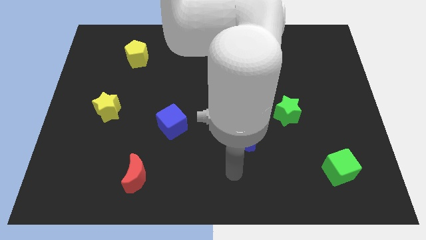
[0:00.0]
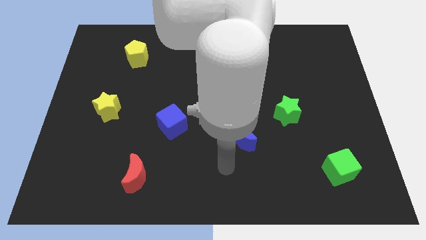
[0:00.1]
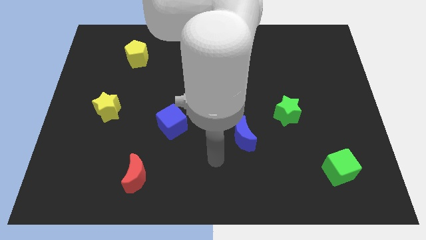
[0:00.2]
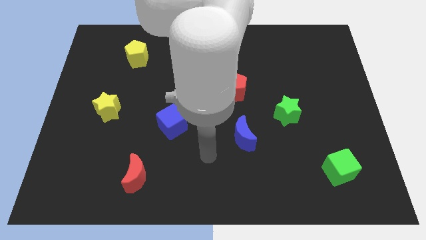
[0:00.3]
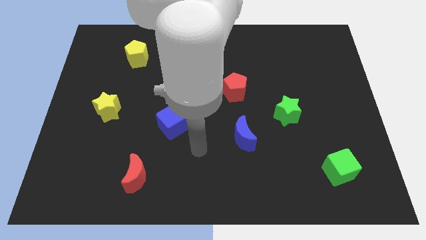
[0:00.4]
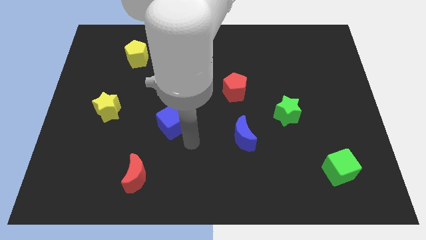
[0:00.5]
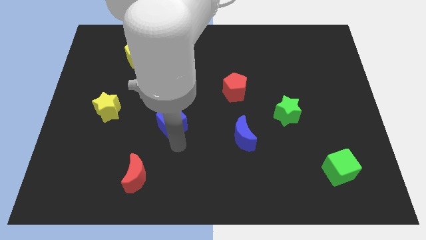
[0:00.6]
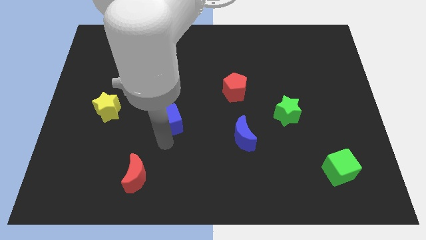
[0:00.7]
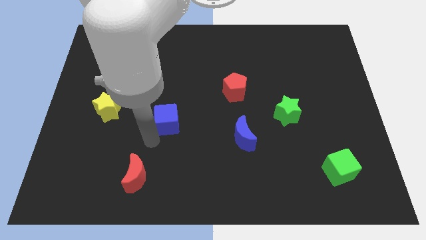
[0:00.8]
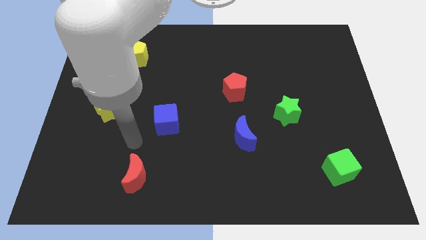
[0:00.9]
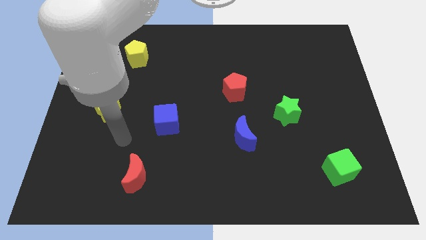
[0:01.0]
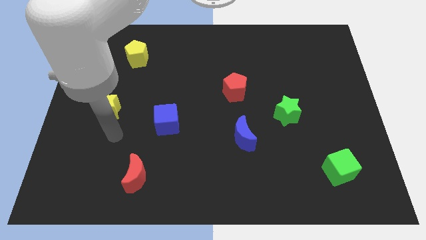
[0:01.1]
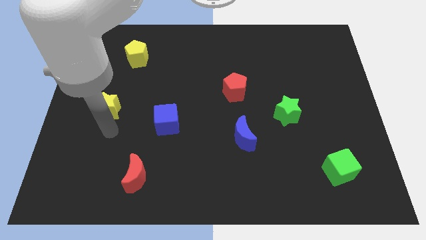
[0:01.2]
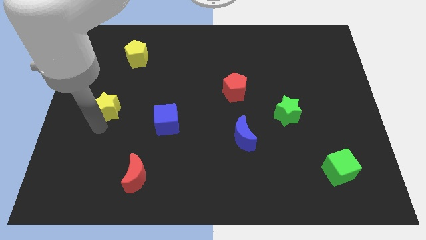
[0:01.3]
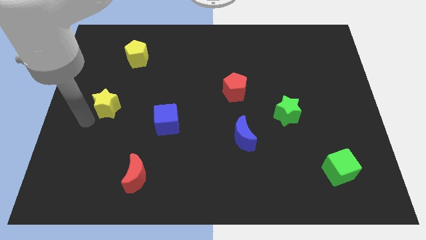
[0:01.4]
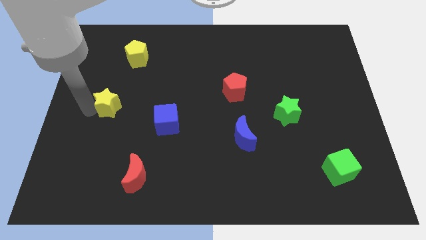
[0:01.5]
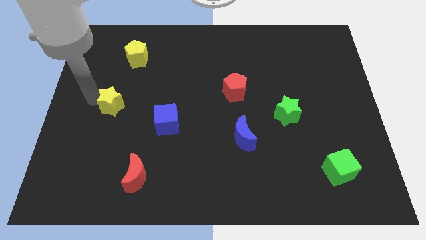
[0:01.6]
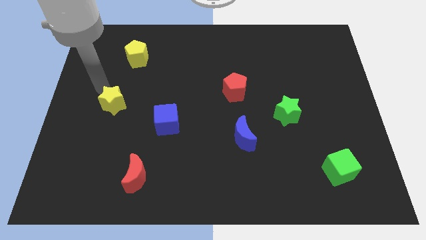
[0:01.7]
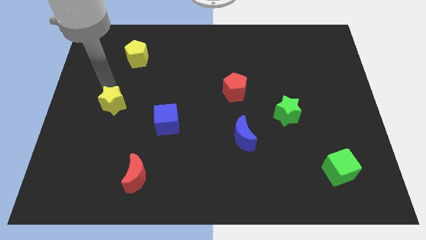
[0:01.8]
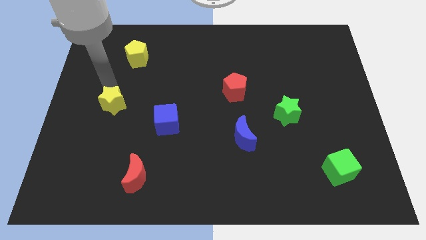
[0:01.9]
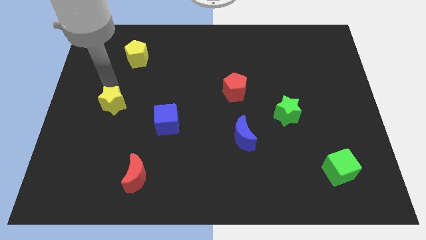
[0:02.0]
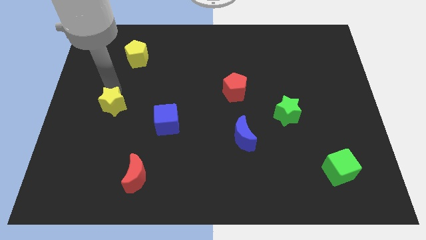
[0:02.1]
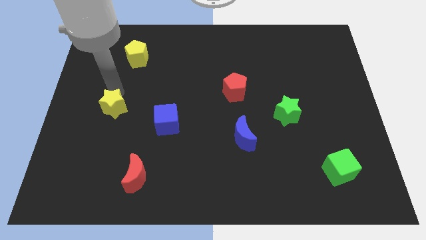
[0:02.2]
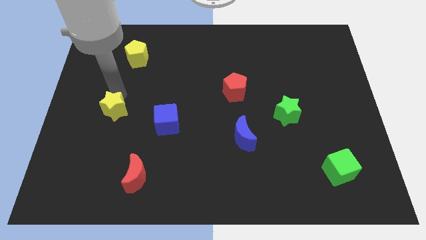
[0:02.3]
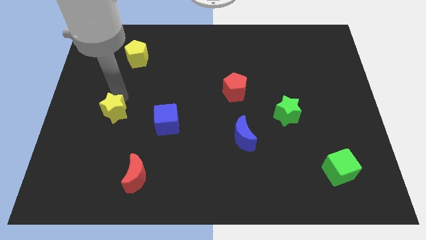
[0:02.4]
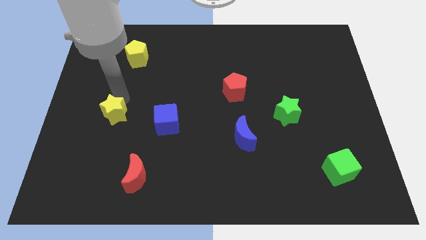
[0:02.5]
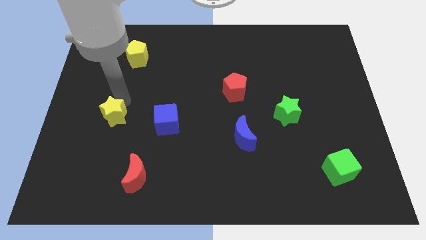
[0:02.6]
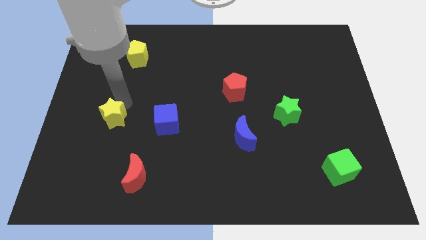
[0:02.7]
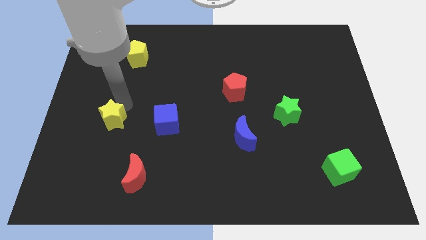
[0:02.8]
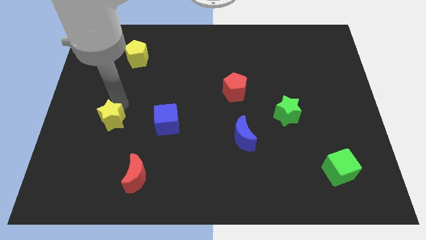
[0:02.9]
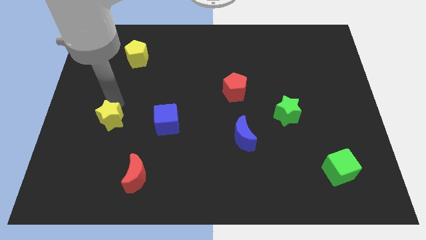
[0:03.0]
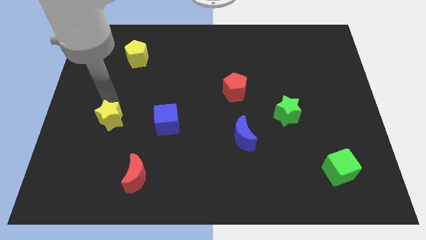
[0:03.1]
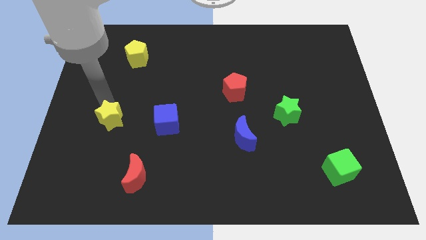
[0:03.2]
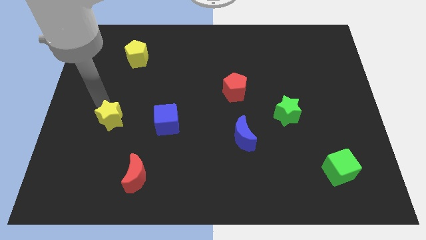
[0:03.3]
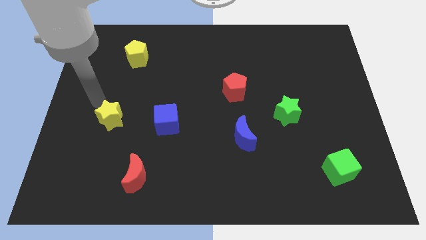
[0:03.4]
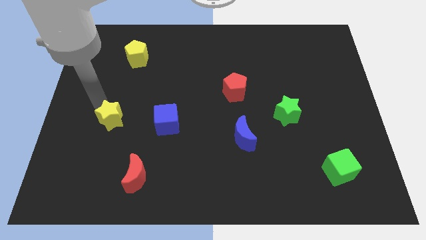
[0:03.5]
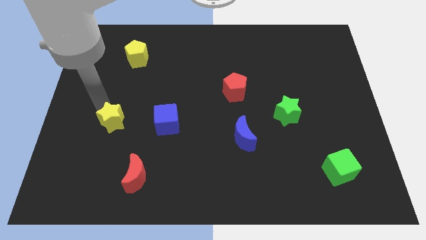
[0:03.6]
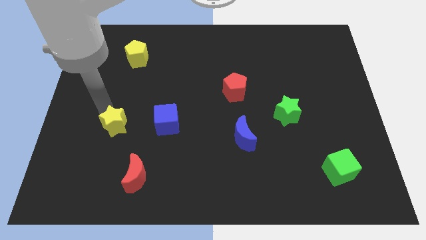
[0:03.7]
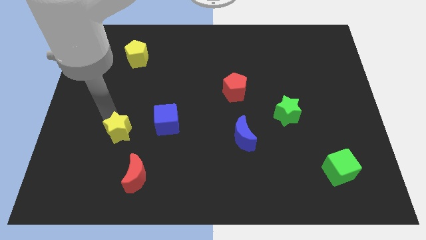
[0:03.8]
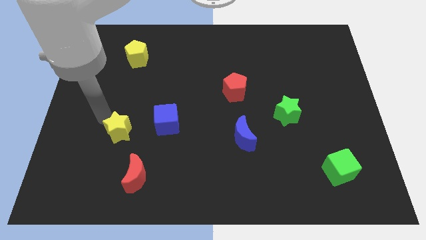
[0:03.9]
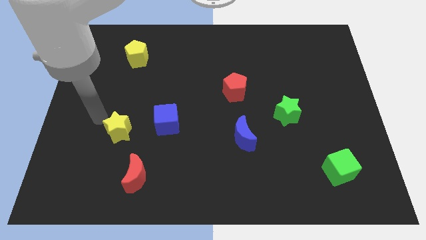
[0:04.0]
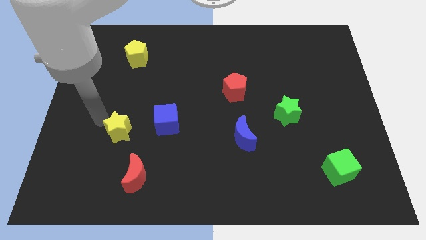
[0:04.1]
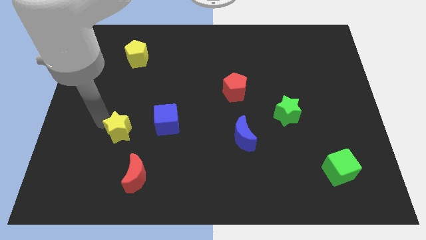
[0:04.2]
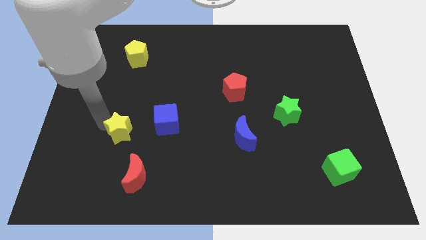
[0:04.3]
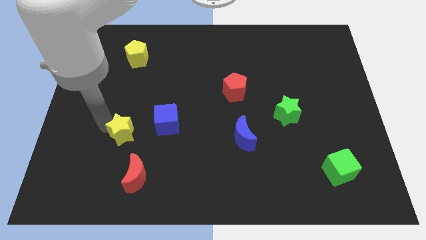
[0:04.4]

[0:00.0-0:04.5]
put the yellow star to the bottom left of the blue cube

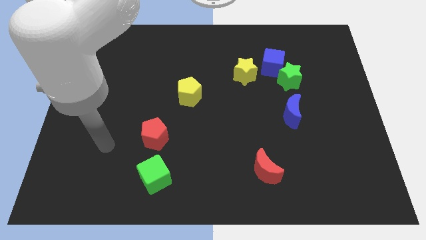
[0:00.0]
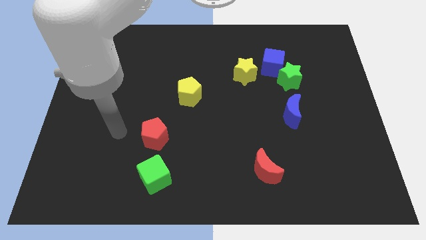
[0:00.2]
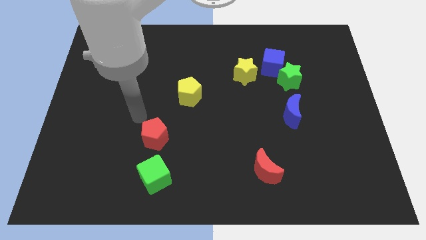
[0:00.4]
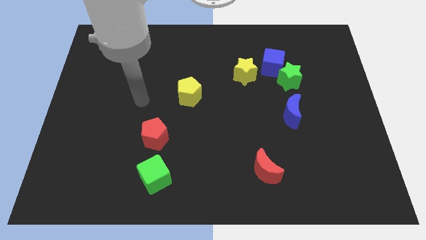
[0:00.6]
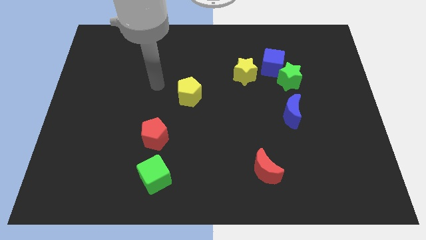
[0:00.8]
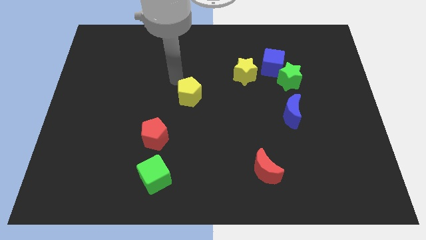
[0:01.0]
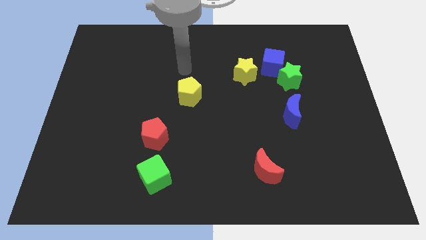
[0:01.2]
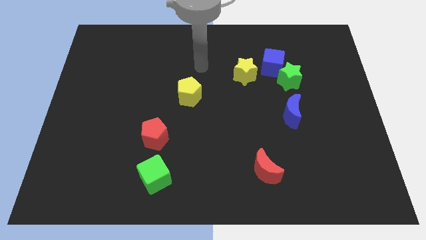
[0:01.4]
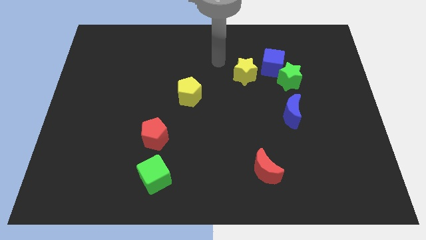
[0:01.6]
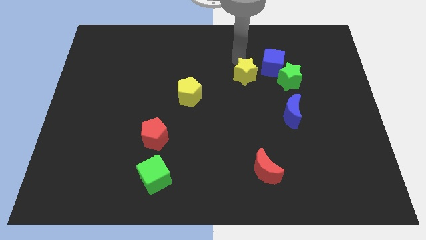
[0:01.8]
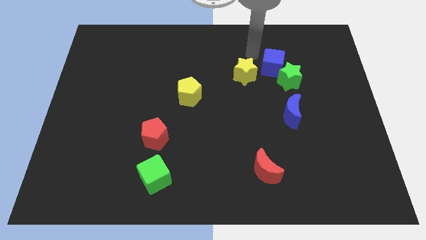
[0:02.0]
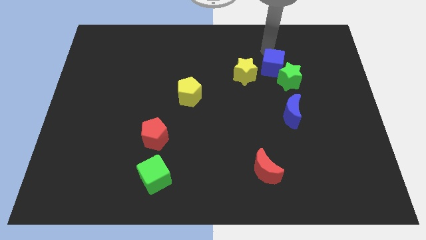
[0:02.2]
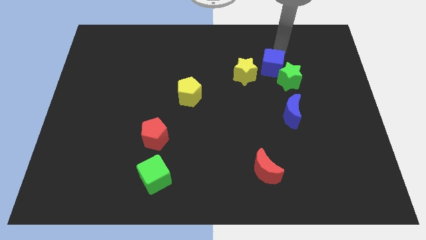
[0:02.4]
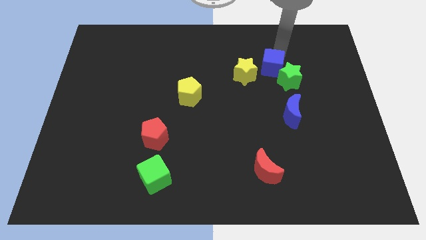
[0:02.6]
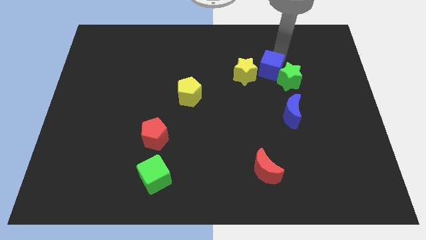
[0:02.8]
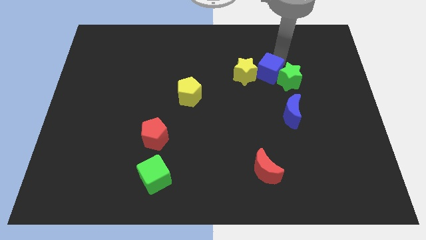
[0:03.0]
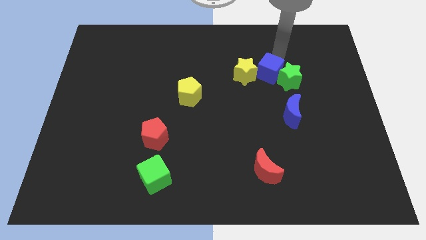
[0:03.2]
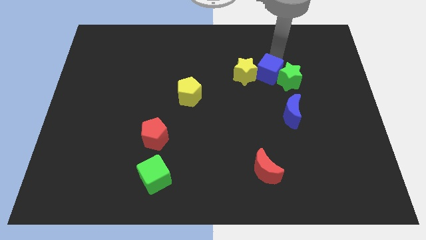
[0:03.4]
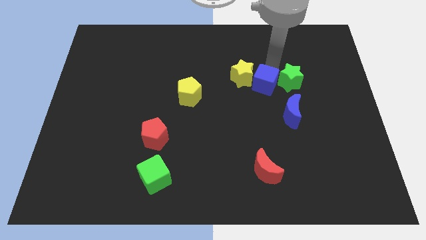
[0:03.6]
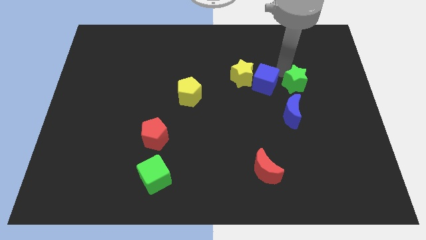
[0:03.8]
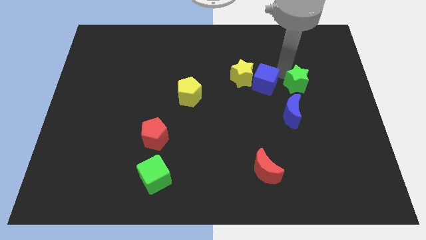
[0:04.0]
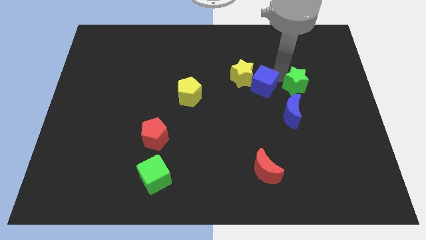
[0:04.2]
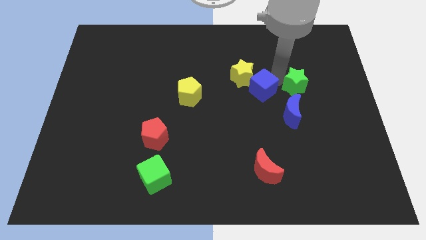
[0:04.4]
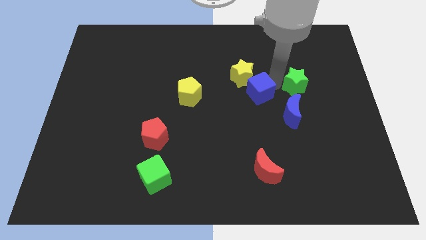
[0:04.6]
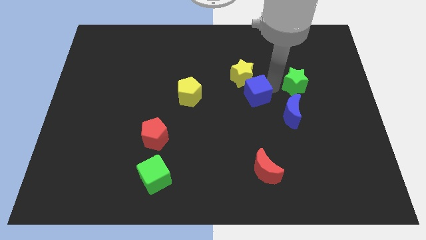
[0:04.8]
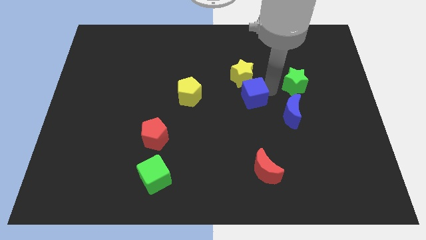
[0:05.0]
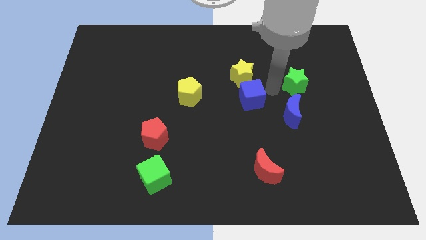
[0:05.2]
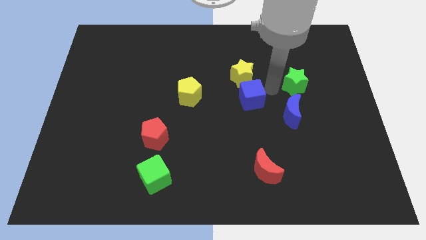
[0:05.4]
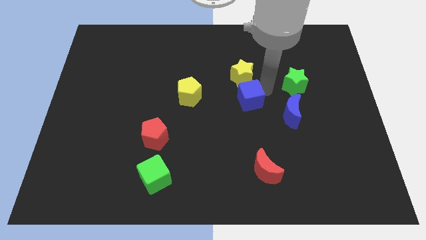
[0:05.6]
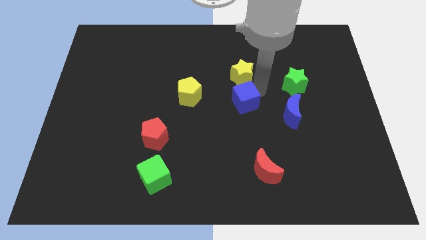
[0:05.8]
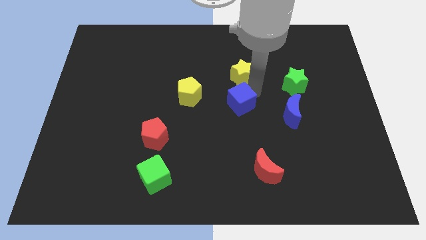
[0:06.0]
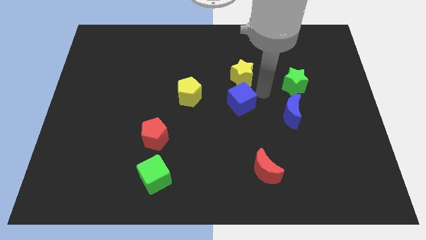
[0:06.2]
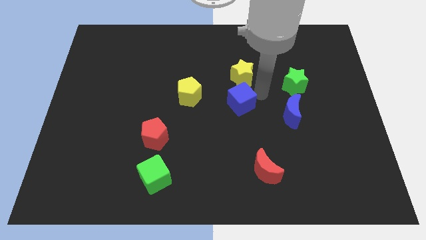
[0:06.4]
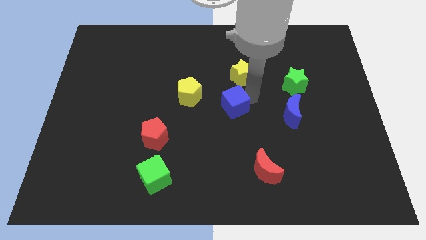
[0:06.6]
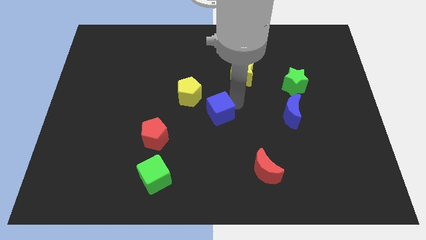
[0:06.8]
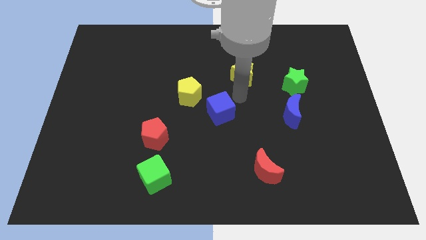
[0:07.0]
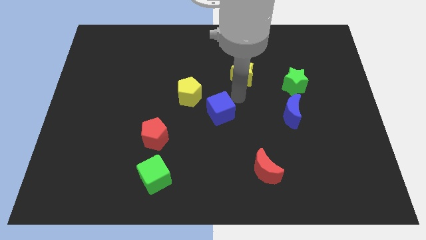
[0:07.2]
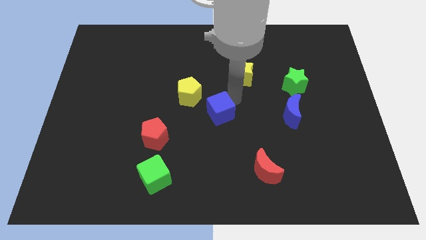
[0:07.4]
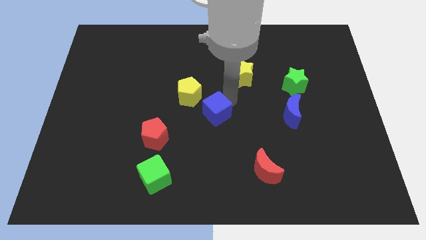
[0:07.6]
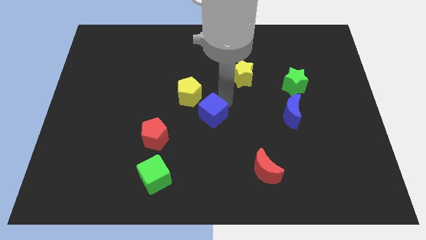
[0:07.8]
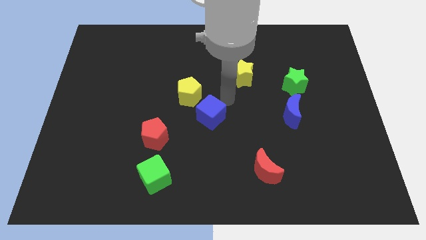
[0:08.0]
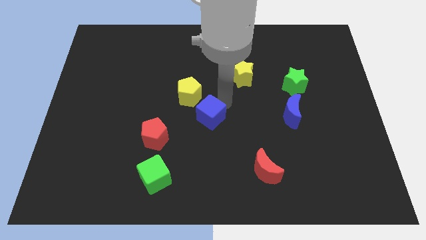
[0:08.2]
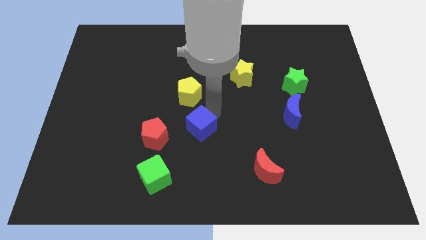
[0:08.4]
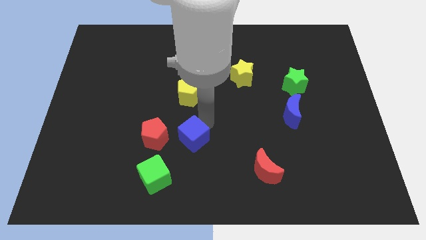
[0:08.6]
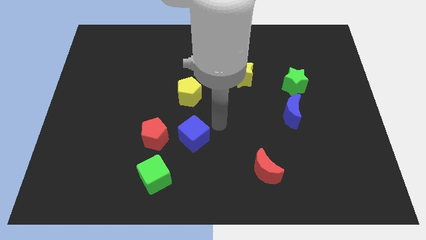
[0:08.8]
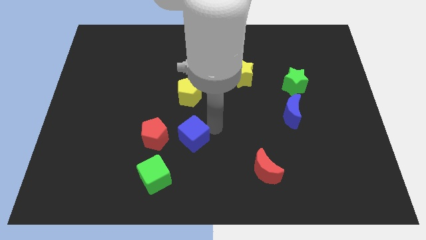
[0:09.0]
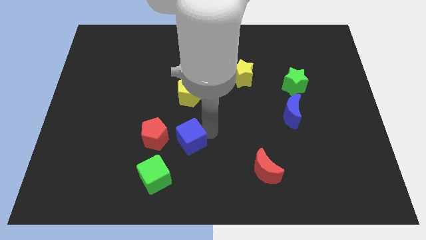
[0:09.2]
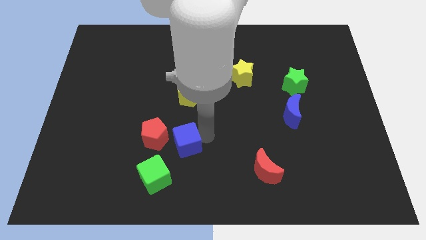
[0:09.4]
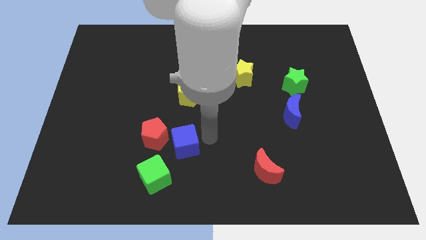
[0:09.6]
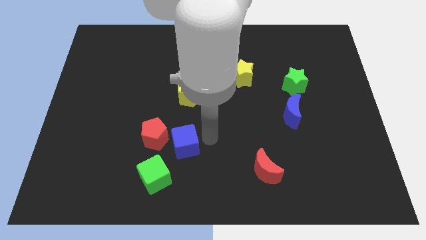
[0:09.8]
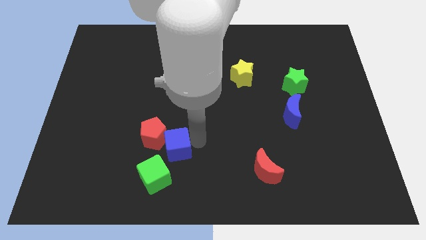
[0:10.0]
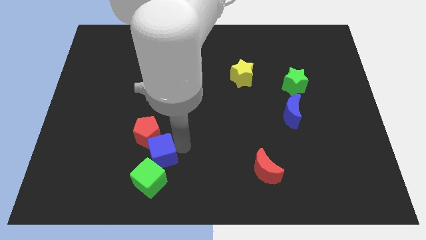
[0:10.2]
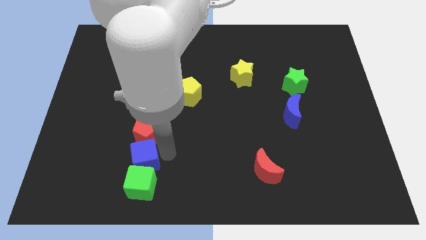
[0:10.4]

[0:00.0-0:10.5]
move the blue cube to the bottom left of the red pentagon
